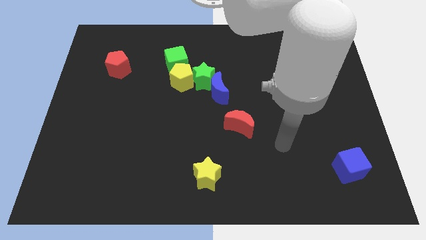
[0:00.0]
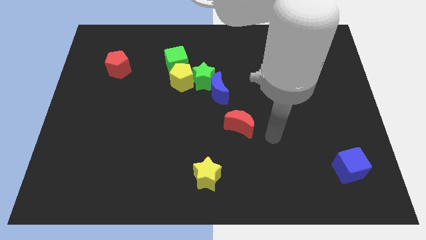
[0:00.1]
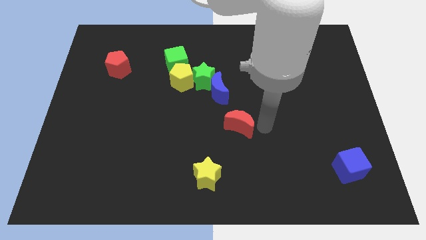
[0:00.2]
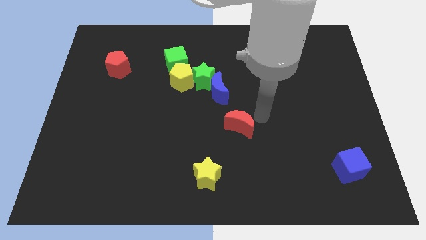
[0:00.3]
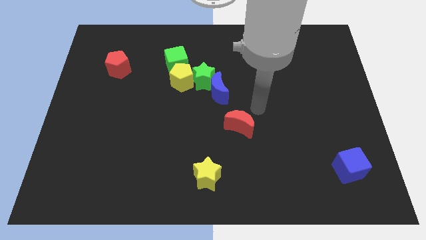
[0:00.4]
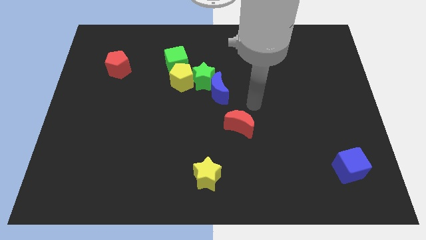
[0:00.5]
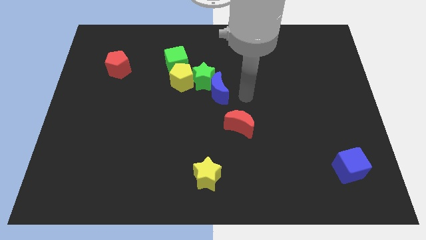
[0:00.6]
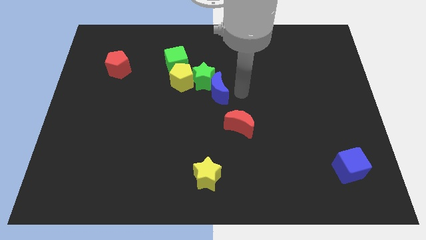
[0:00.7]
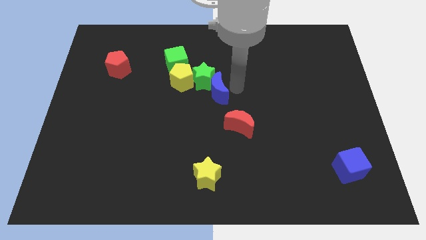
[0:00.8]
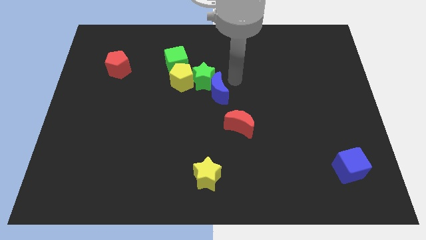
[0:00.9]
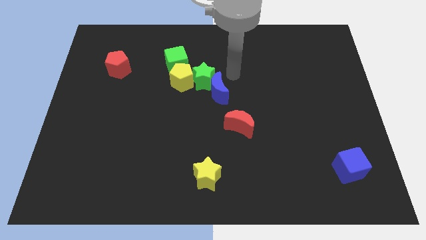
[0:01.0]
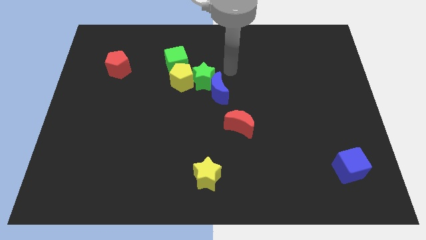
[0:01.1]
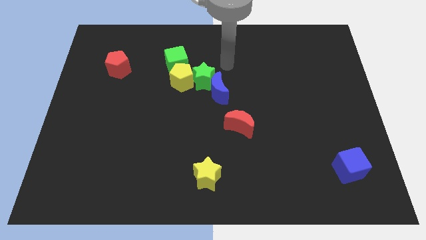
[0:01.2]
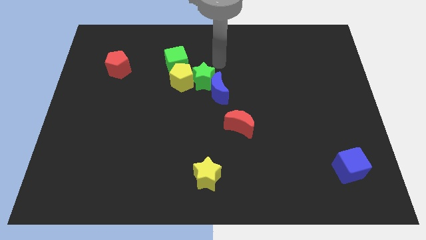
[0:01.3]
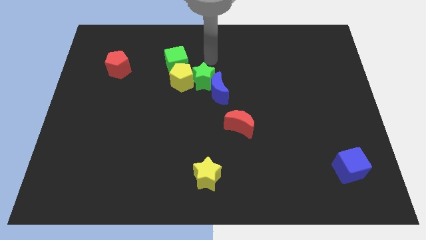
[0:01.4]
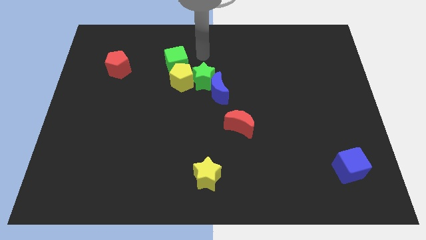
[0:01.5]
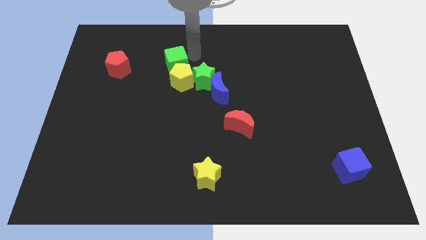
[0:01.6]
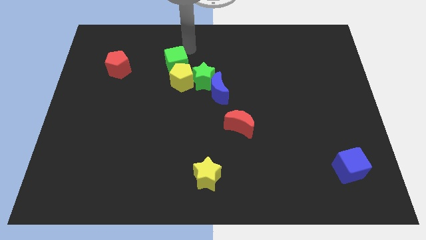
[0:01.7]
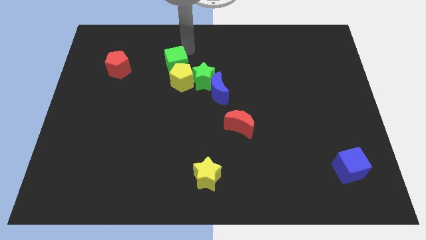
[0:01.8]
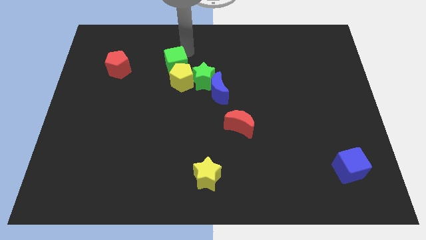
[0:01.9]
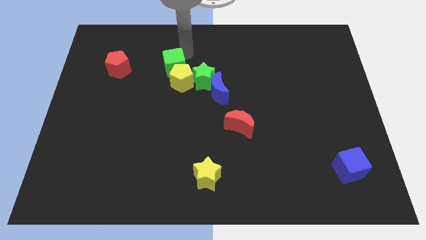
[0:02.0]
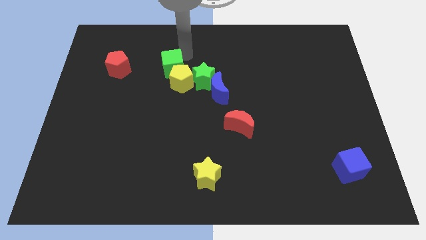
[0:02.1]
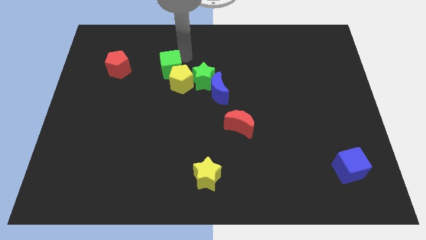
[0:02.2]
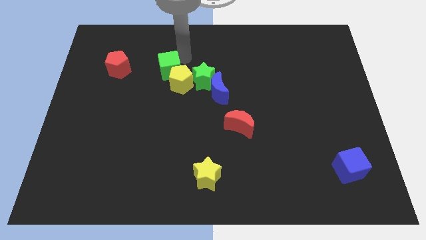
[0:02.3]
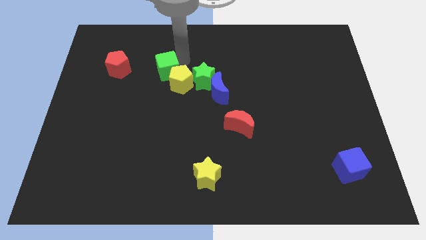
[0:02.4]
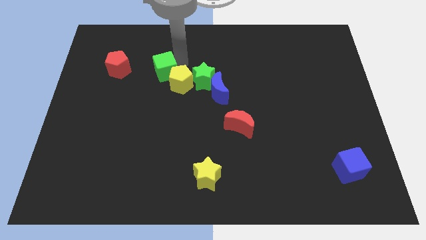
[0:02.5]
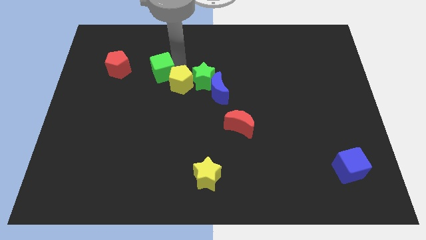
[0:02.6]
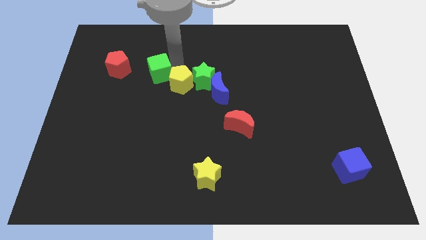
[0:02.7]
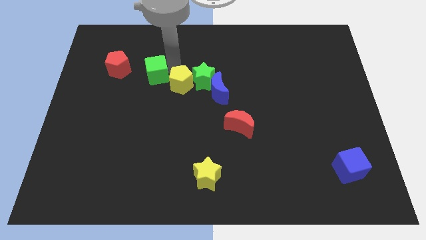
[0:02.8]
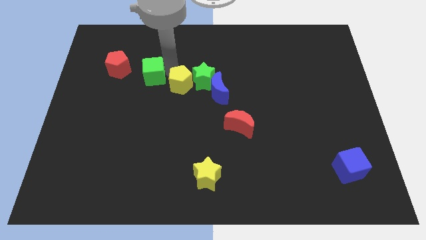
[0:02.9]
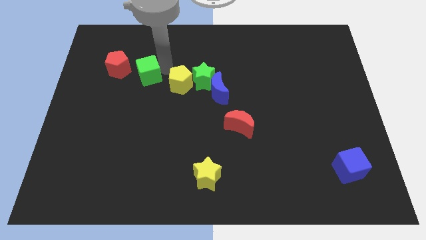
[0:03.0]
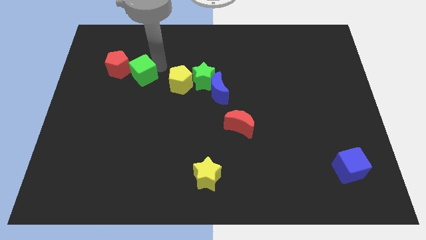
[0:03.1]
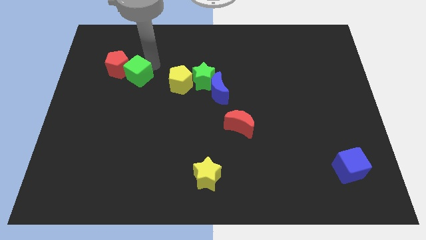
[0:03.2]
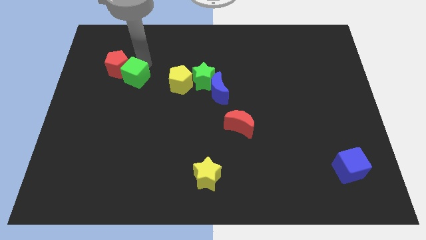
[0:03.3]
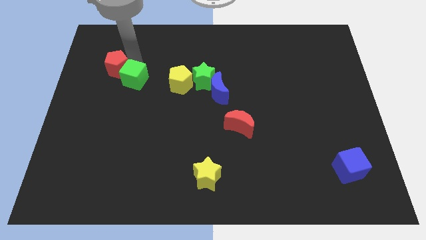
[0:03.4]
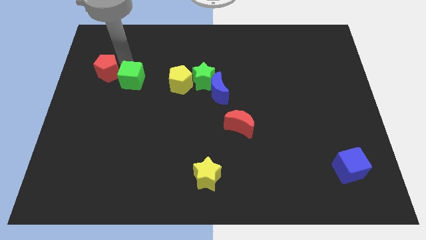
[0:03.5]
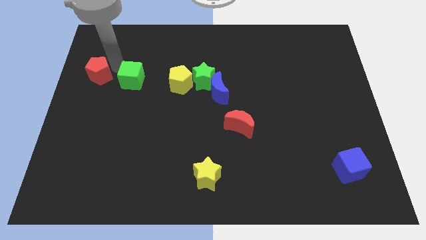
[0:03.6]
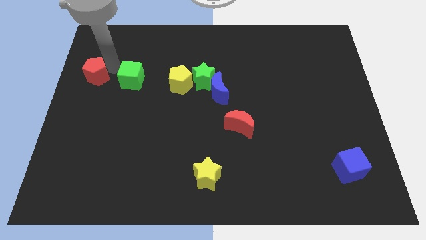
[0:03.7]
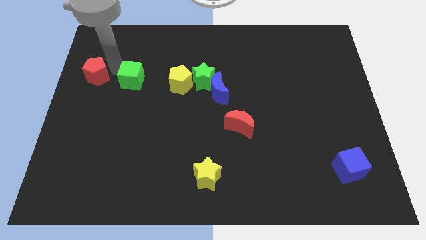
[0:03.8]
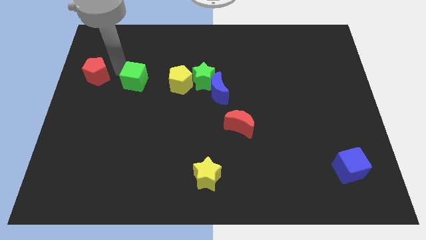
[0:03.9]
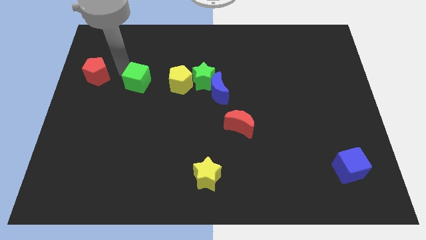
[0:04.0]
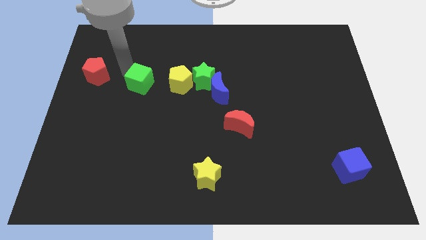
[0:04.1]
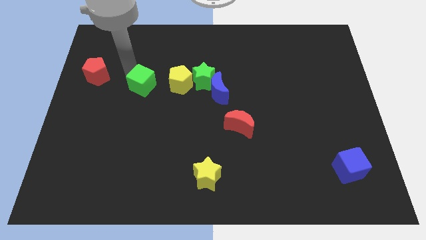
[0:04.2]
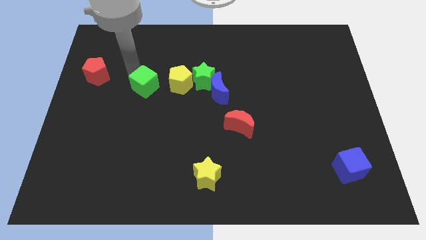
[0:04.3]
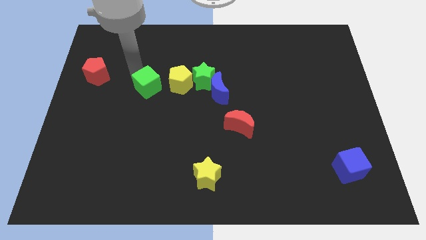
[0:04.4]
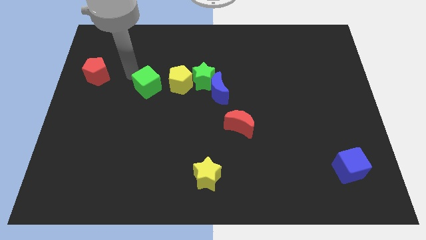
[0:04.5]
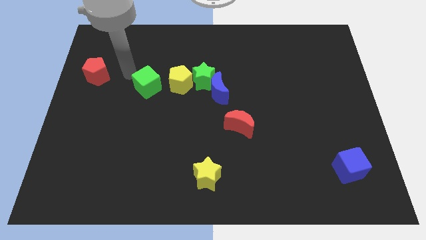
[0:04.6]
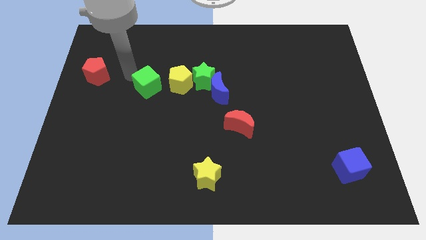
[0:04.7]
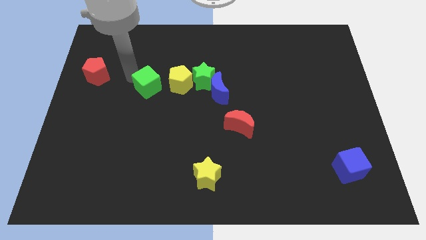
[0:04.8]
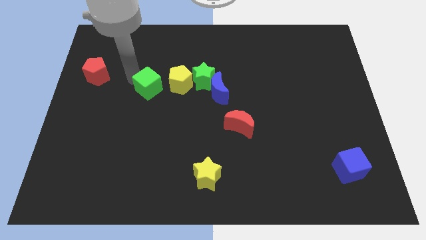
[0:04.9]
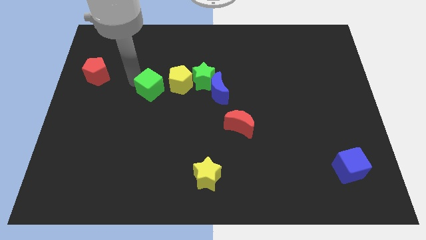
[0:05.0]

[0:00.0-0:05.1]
slightly slide the green cube down

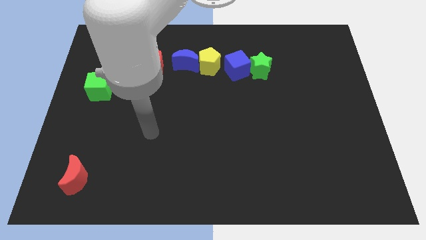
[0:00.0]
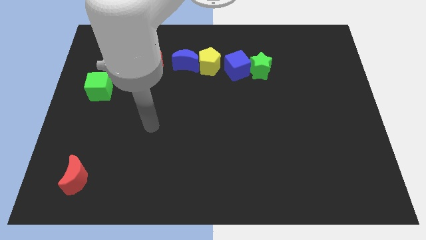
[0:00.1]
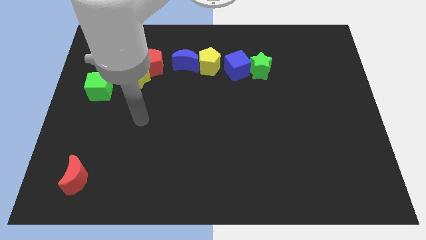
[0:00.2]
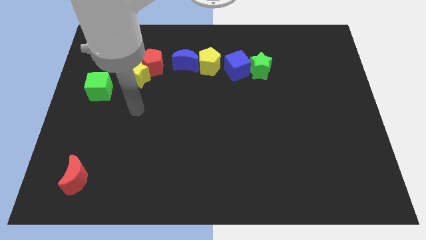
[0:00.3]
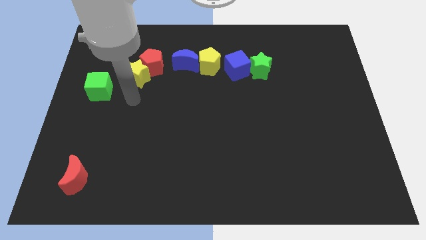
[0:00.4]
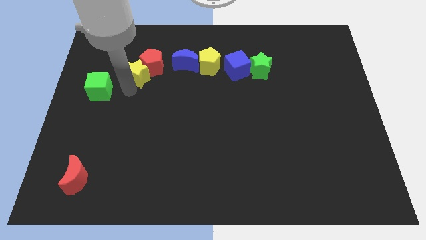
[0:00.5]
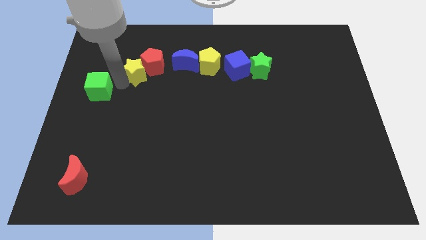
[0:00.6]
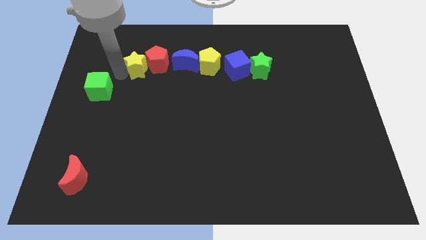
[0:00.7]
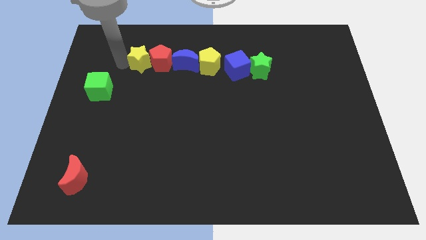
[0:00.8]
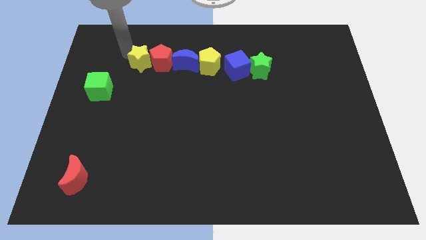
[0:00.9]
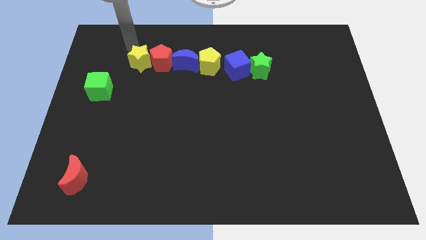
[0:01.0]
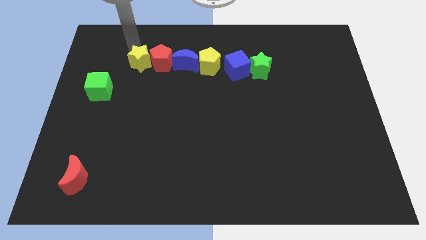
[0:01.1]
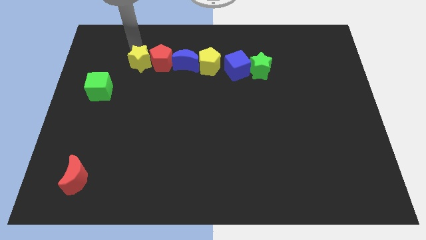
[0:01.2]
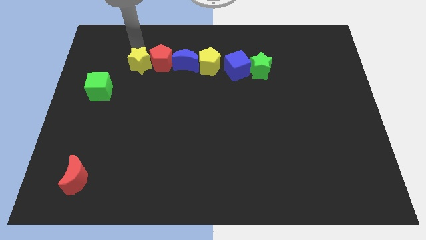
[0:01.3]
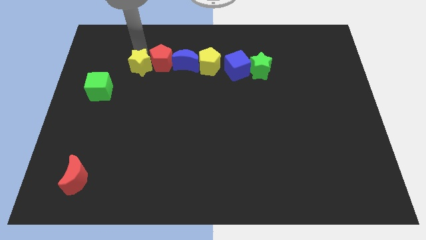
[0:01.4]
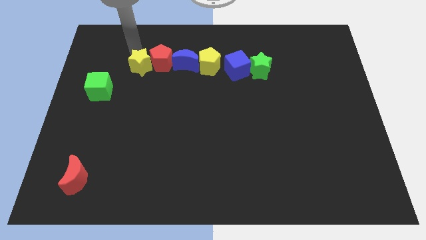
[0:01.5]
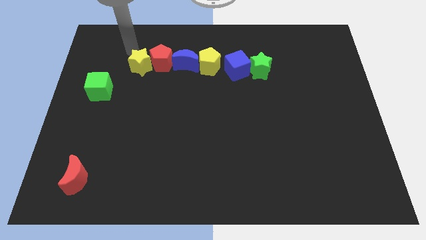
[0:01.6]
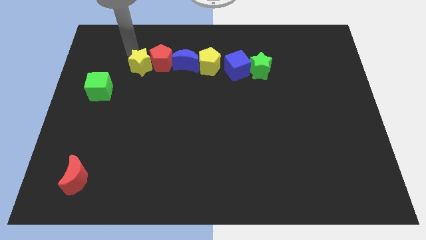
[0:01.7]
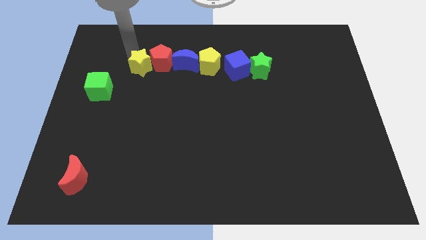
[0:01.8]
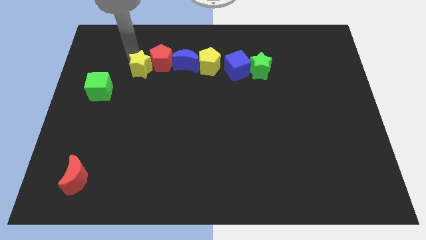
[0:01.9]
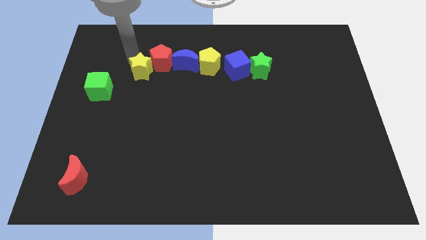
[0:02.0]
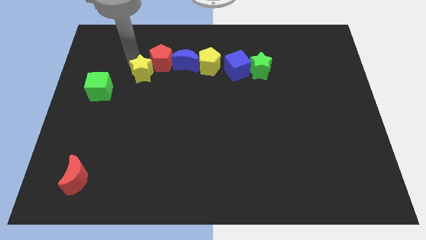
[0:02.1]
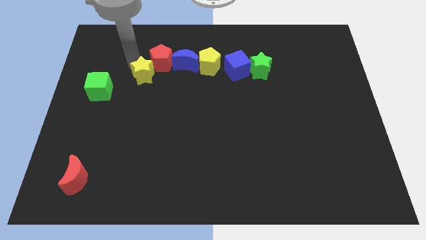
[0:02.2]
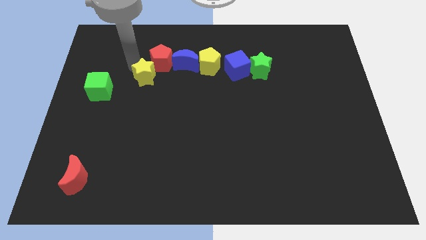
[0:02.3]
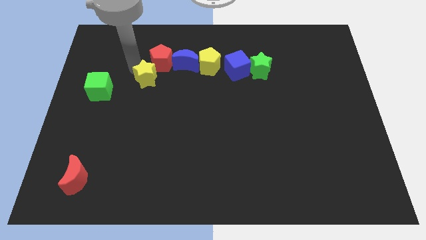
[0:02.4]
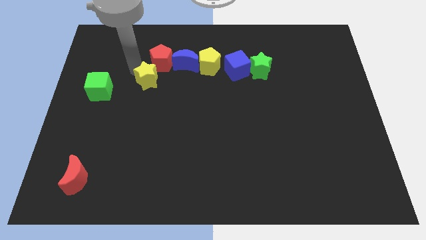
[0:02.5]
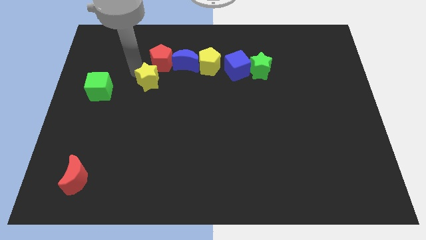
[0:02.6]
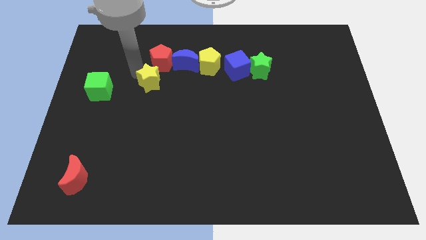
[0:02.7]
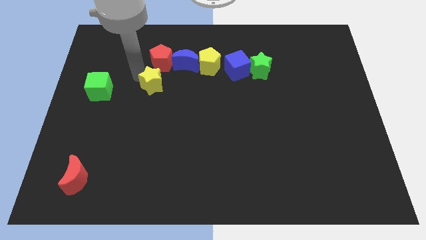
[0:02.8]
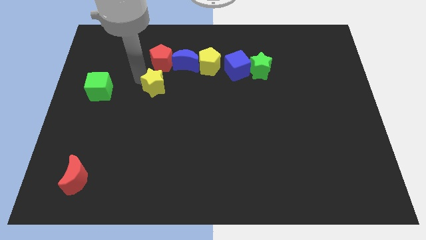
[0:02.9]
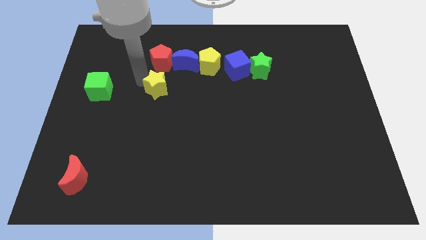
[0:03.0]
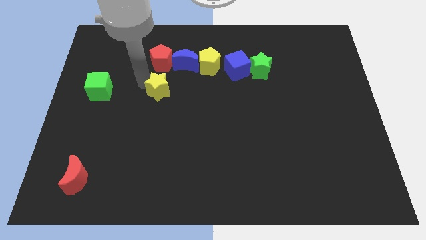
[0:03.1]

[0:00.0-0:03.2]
push the yellow star diagonally downwards and to the right a little bit
